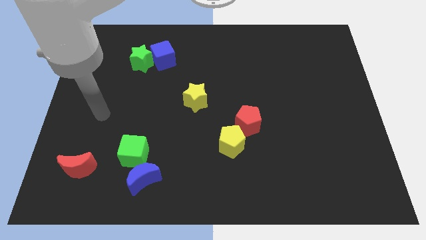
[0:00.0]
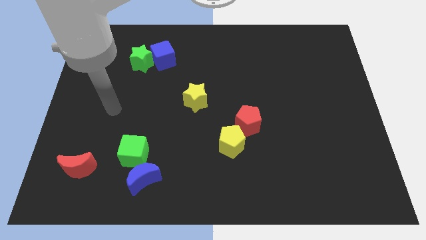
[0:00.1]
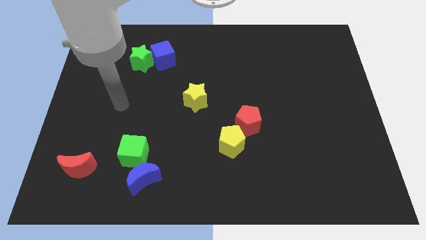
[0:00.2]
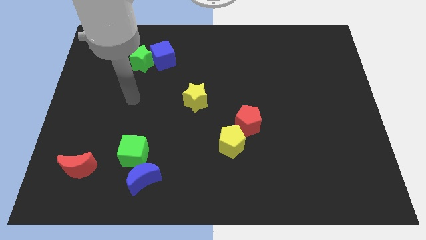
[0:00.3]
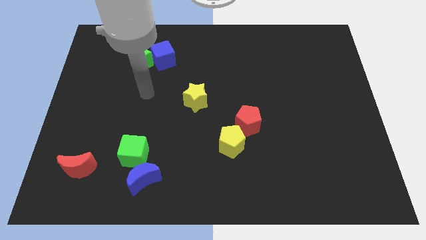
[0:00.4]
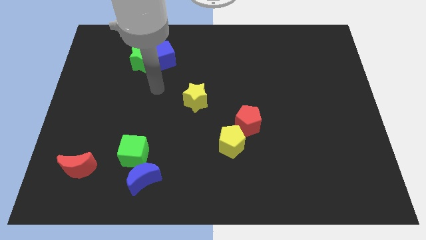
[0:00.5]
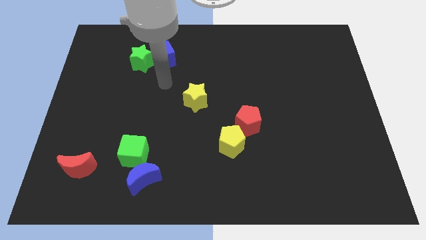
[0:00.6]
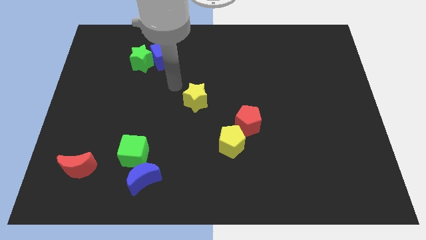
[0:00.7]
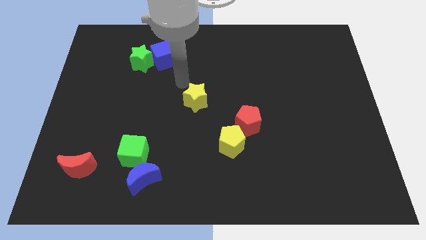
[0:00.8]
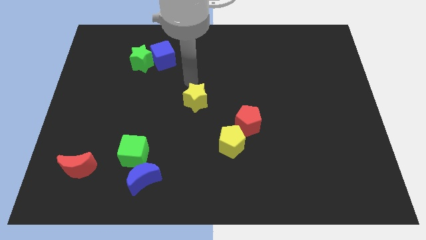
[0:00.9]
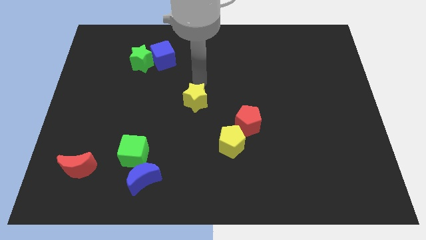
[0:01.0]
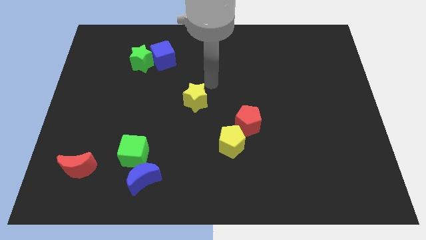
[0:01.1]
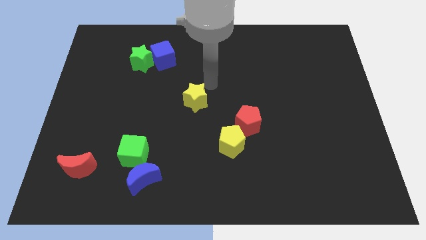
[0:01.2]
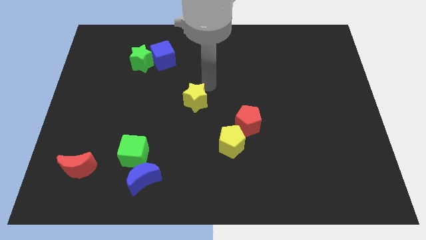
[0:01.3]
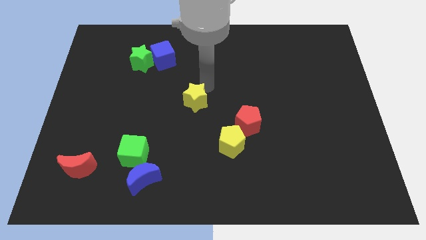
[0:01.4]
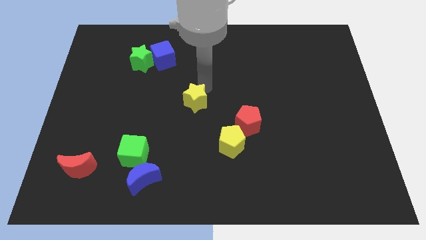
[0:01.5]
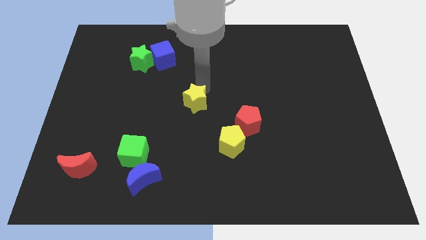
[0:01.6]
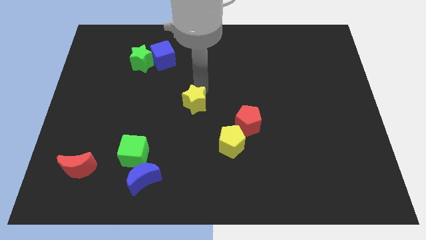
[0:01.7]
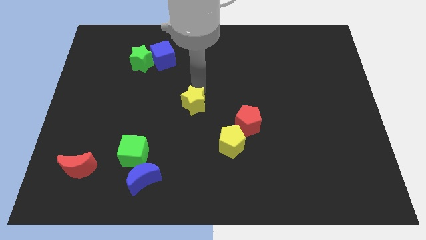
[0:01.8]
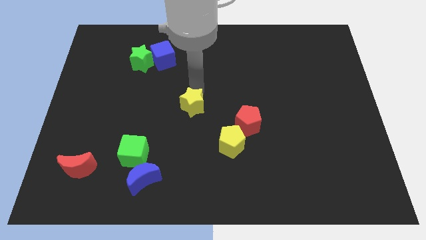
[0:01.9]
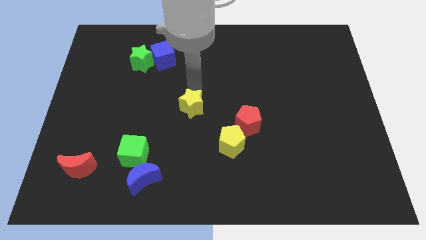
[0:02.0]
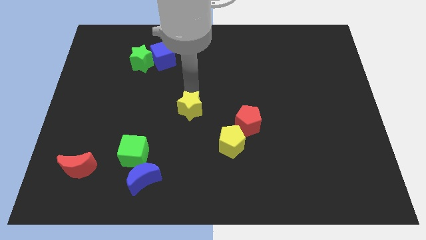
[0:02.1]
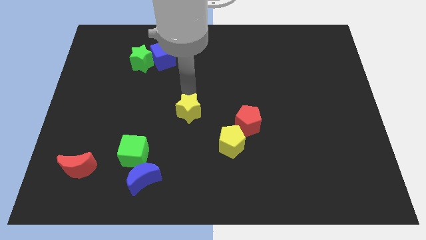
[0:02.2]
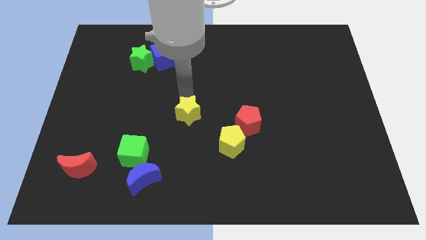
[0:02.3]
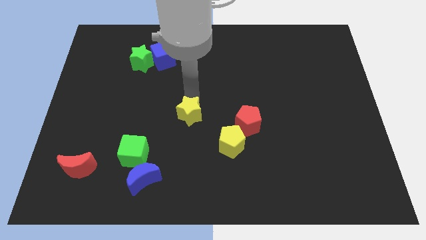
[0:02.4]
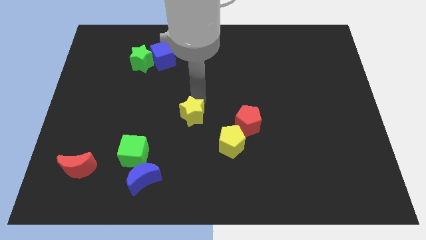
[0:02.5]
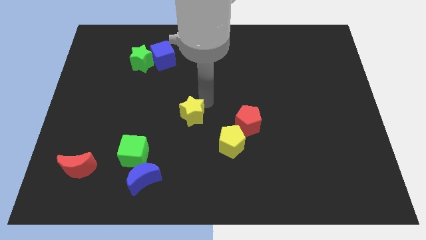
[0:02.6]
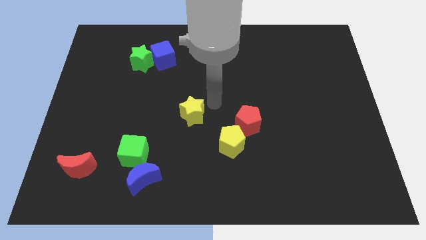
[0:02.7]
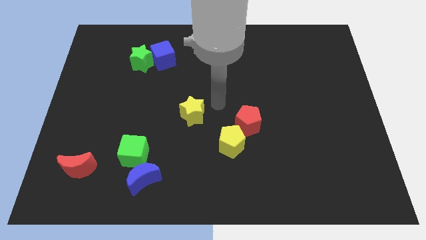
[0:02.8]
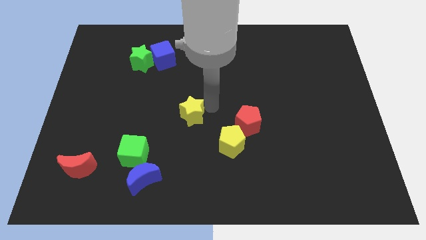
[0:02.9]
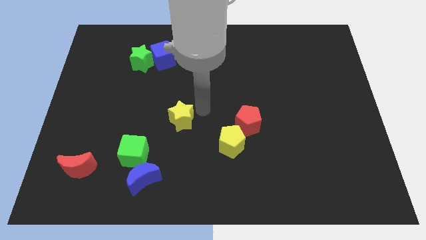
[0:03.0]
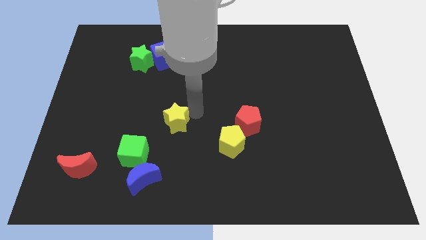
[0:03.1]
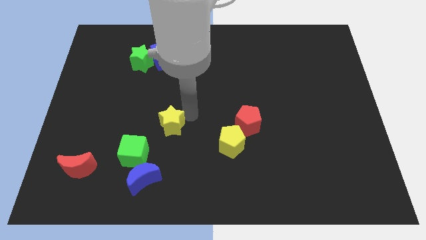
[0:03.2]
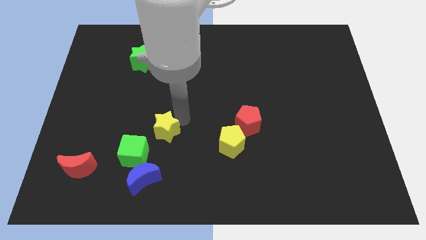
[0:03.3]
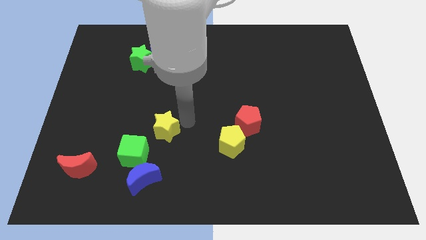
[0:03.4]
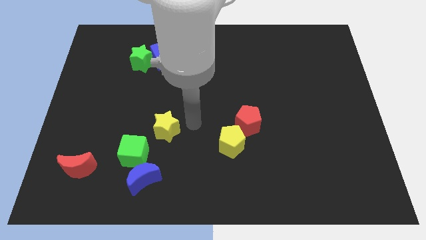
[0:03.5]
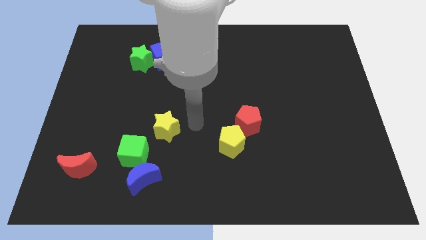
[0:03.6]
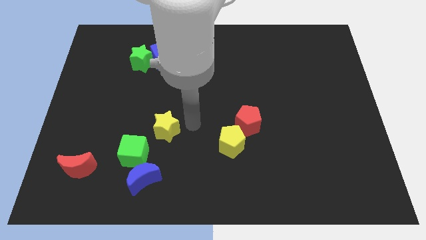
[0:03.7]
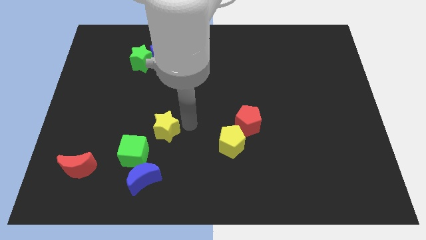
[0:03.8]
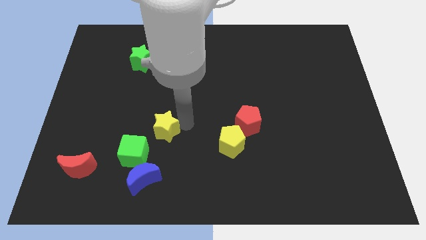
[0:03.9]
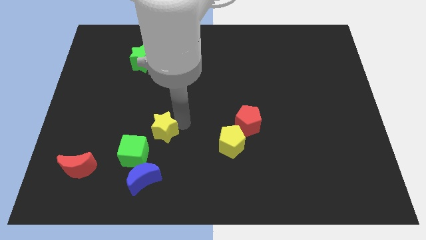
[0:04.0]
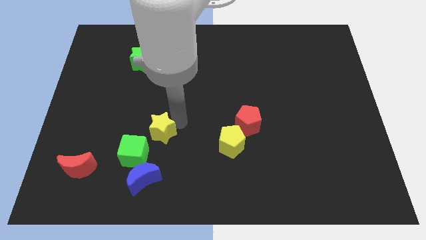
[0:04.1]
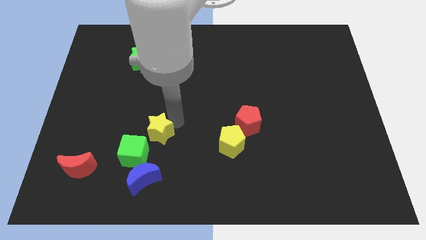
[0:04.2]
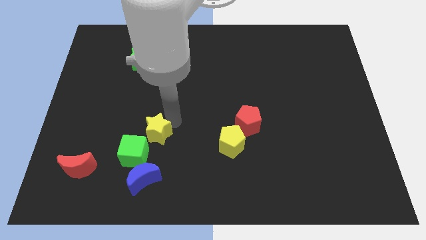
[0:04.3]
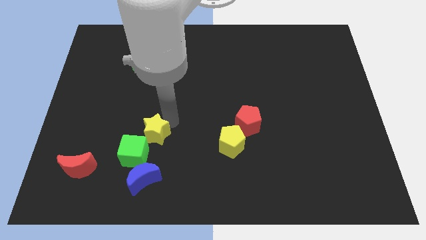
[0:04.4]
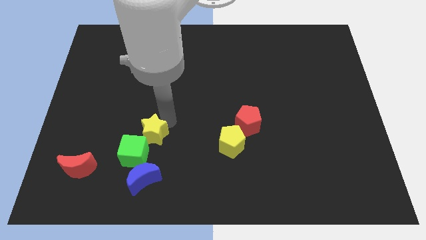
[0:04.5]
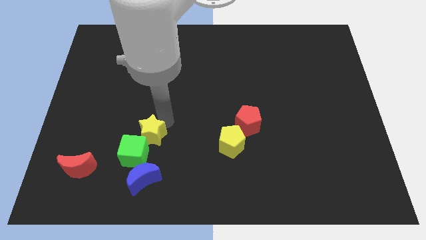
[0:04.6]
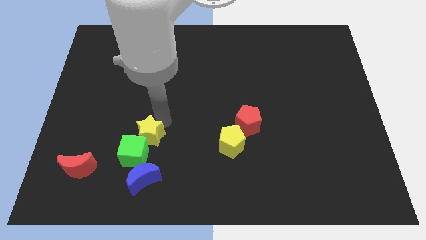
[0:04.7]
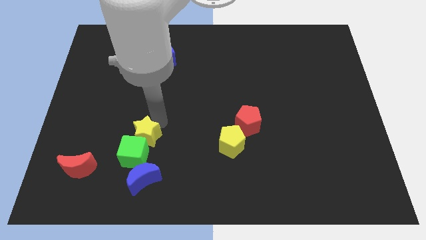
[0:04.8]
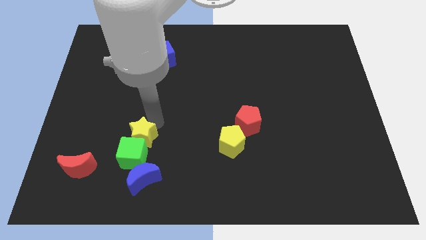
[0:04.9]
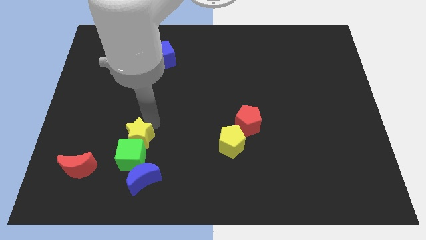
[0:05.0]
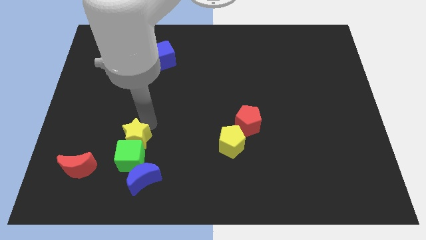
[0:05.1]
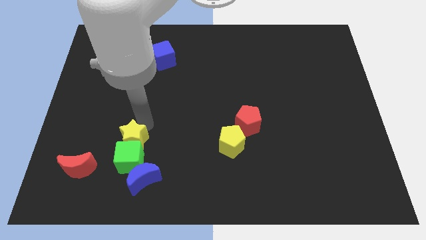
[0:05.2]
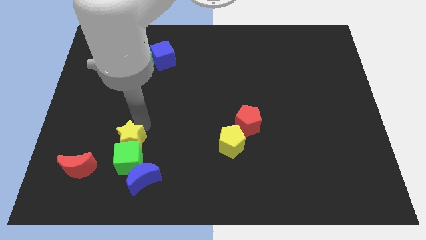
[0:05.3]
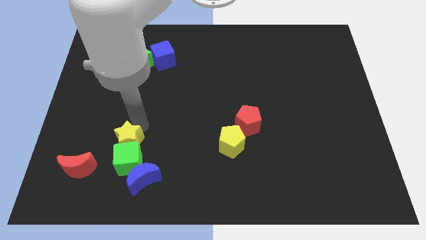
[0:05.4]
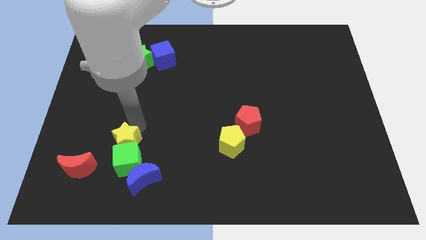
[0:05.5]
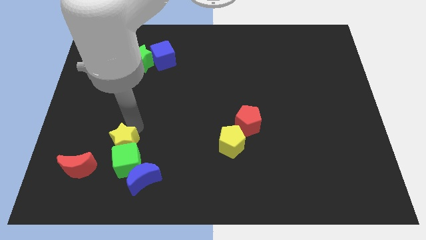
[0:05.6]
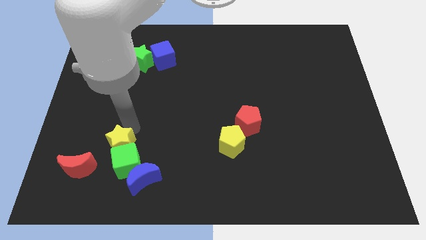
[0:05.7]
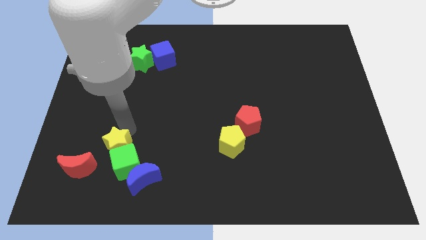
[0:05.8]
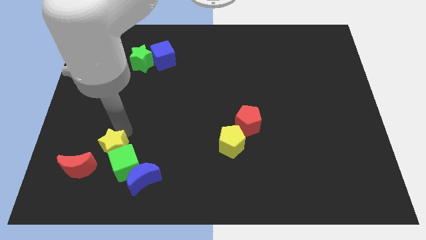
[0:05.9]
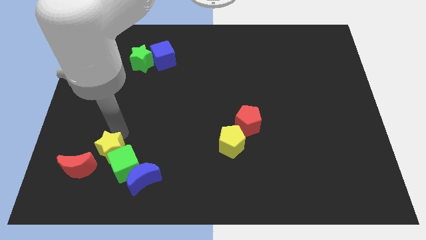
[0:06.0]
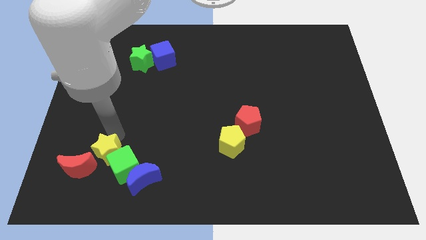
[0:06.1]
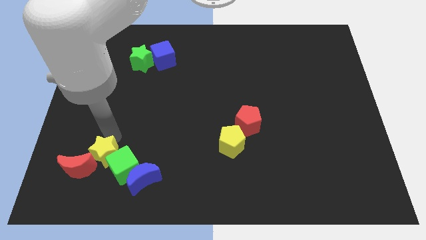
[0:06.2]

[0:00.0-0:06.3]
put the yellow star next to the red moon
